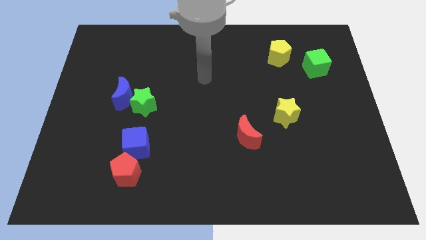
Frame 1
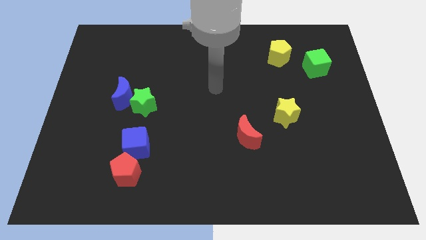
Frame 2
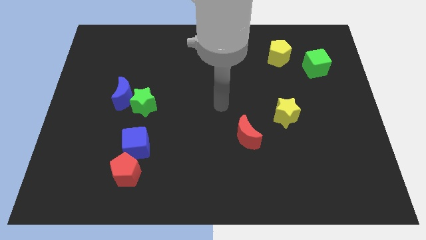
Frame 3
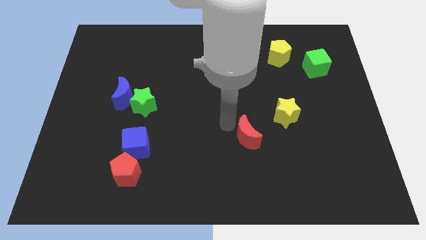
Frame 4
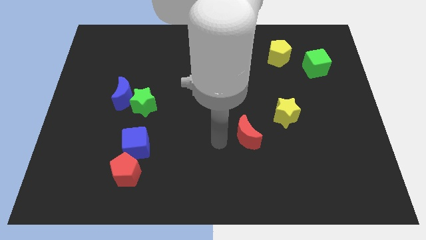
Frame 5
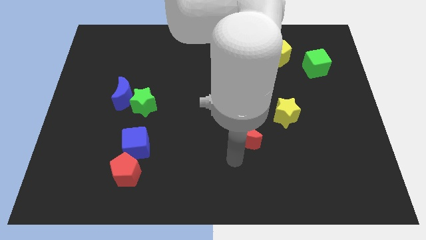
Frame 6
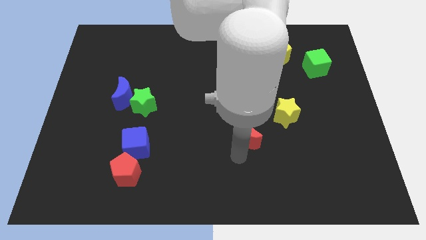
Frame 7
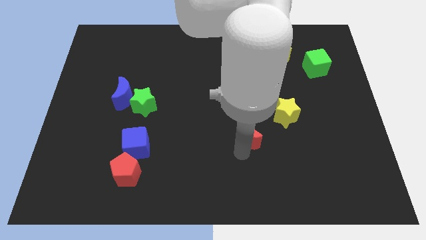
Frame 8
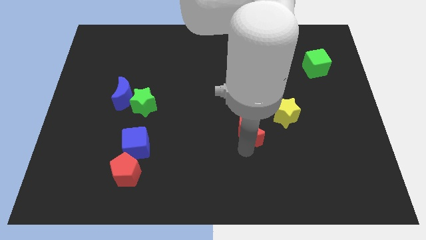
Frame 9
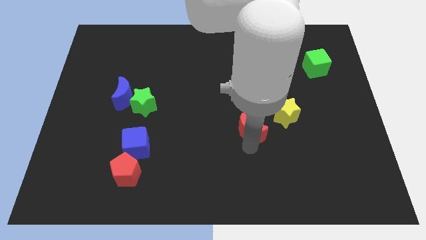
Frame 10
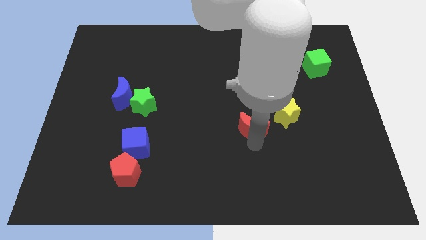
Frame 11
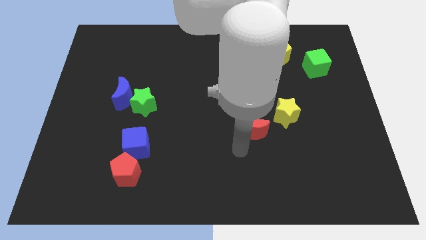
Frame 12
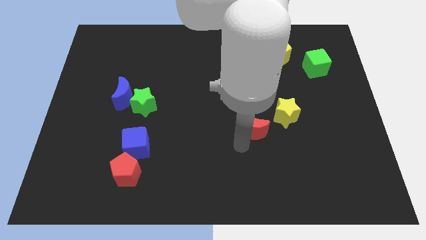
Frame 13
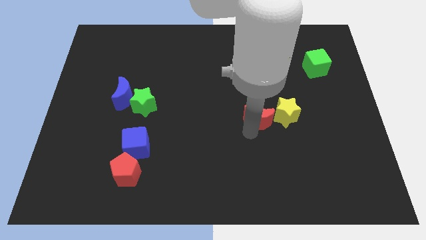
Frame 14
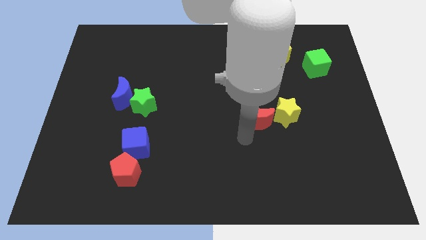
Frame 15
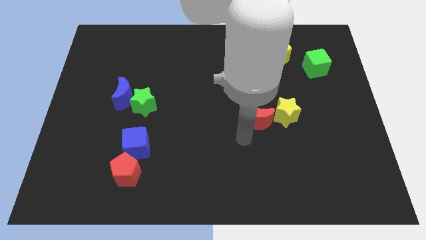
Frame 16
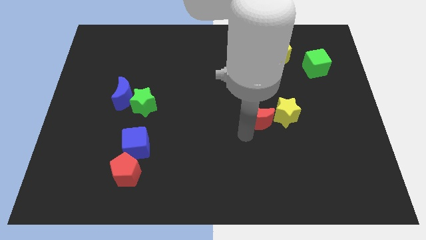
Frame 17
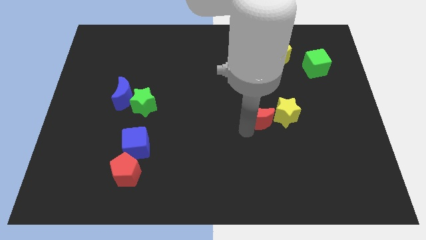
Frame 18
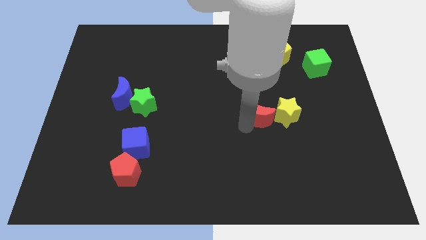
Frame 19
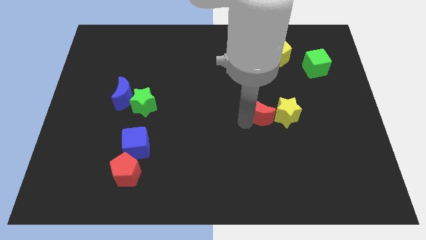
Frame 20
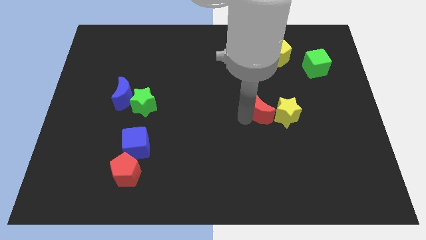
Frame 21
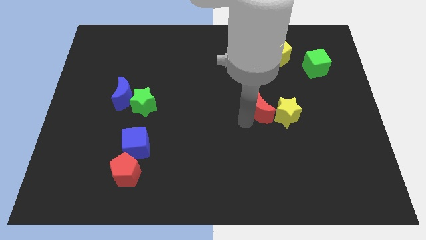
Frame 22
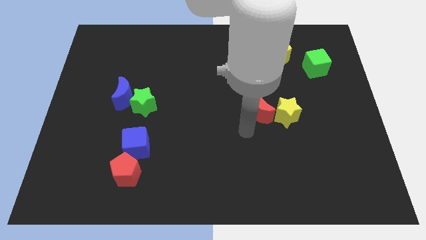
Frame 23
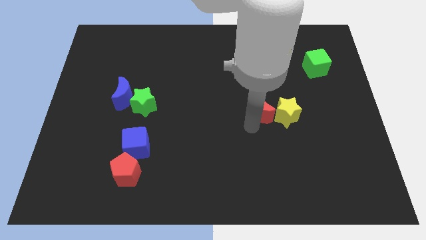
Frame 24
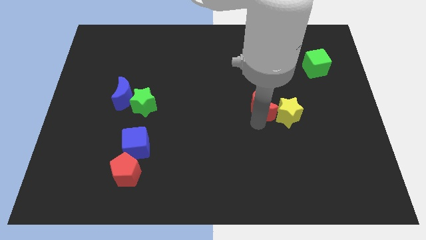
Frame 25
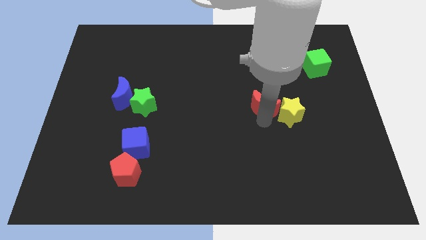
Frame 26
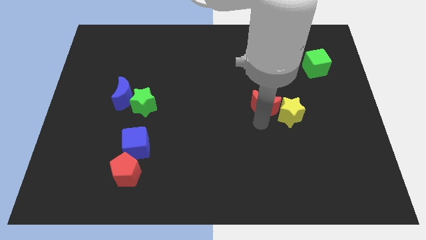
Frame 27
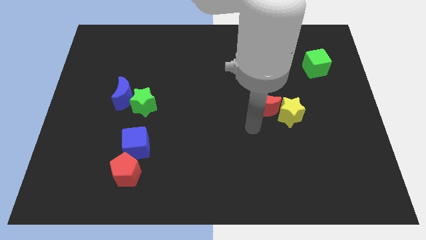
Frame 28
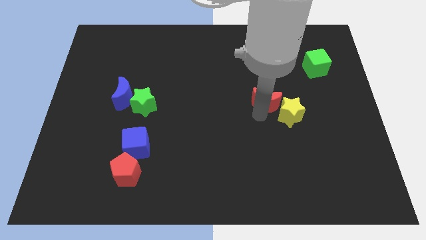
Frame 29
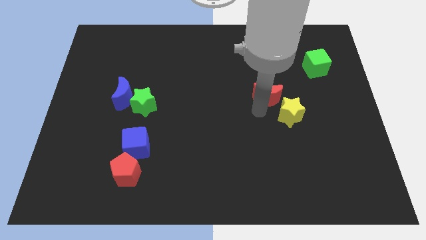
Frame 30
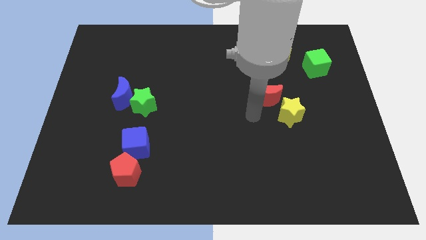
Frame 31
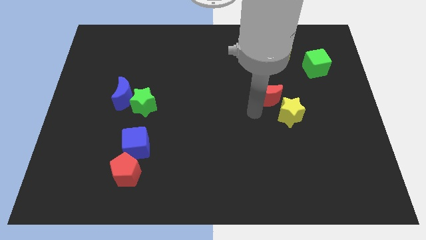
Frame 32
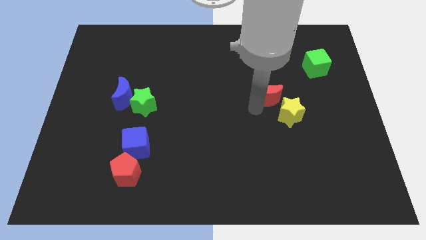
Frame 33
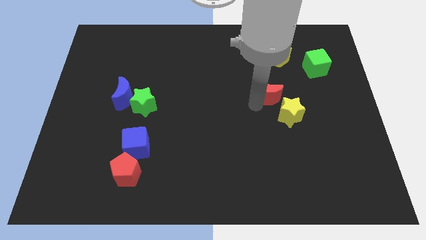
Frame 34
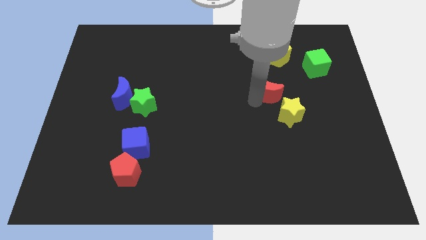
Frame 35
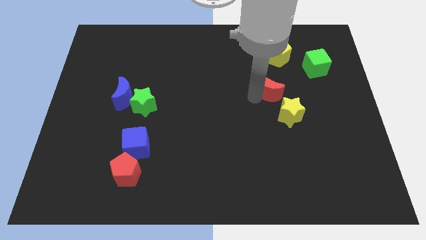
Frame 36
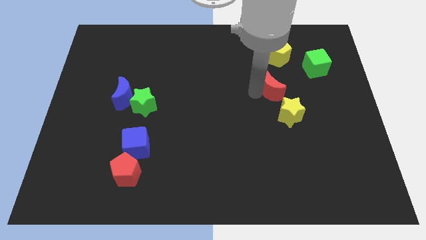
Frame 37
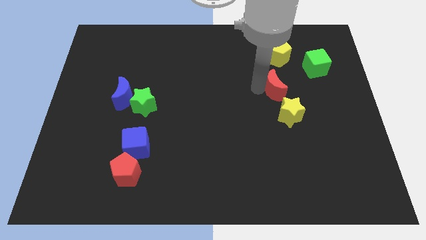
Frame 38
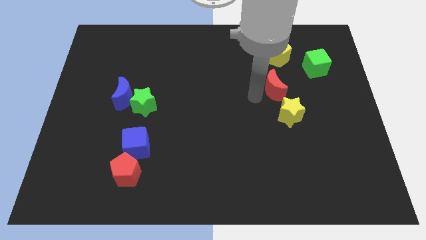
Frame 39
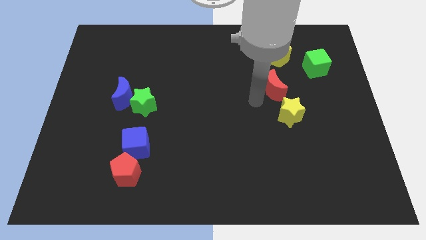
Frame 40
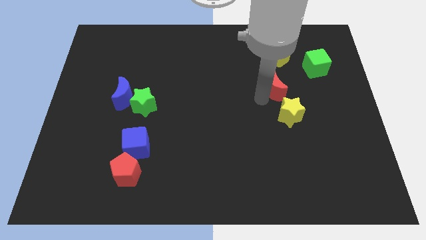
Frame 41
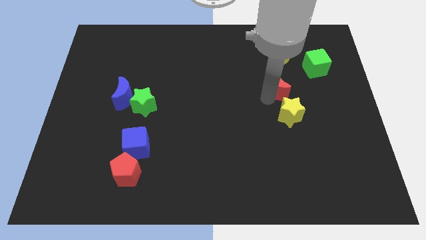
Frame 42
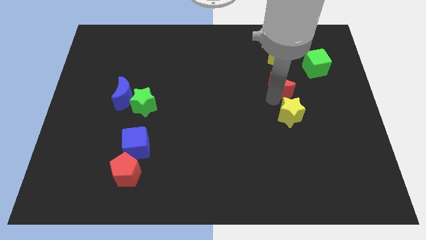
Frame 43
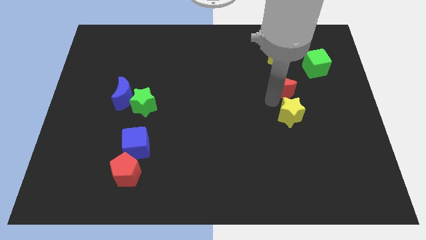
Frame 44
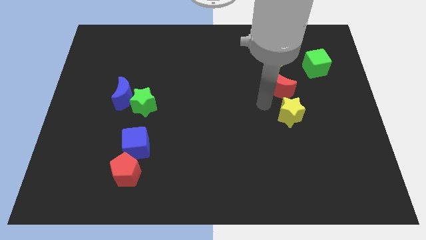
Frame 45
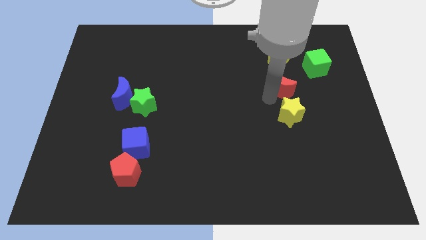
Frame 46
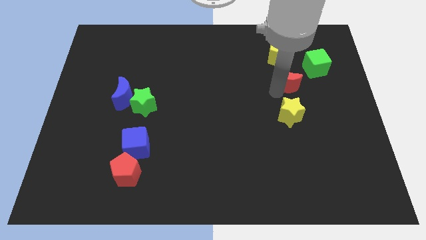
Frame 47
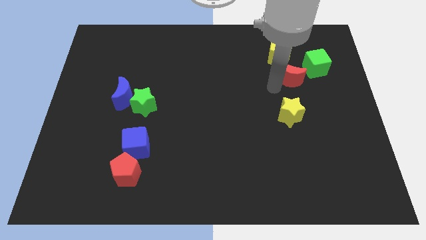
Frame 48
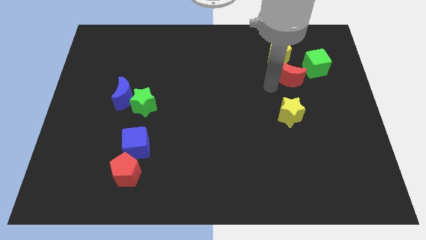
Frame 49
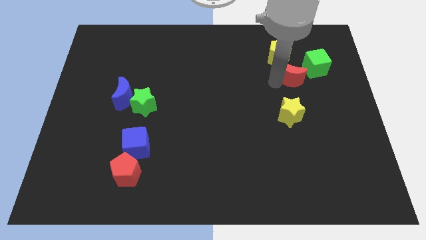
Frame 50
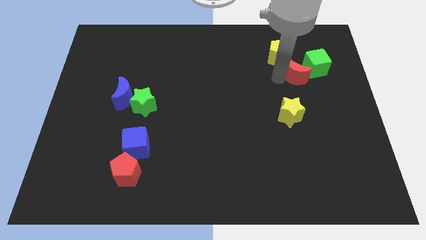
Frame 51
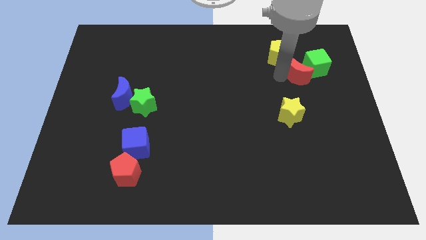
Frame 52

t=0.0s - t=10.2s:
slide the red moon next to the green cube

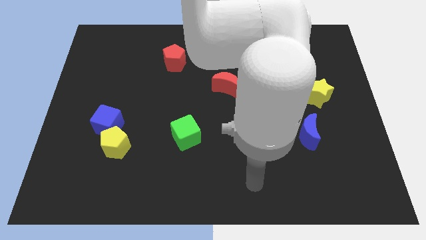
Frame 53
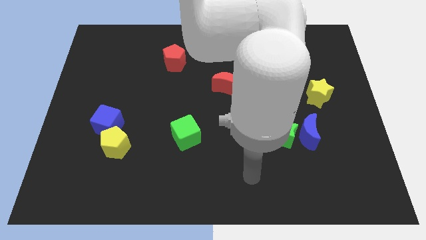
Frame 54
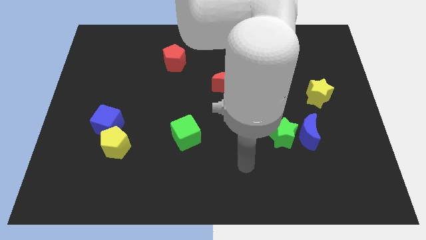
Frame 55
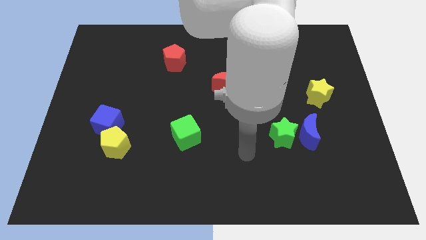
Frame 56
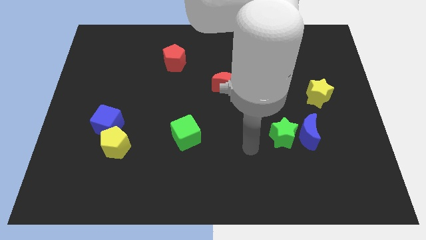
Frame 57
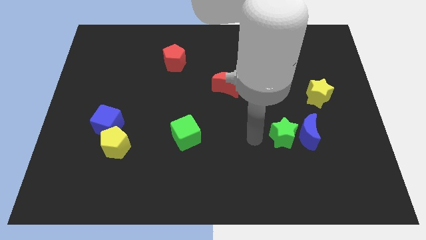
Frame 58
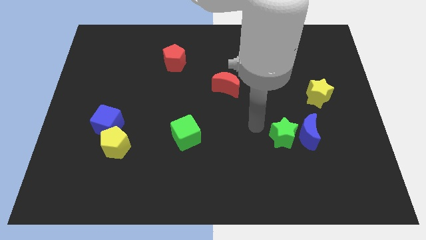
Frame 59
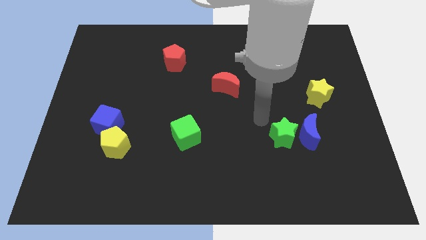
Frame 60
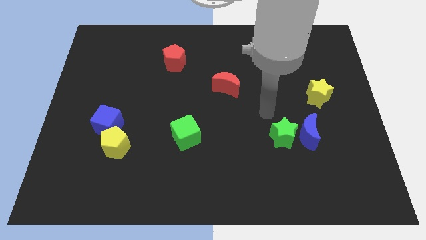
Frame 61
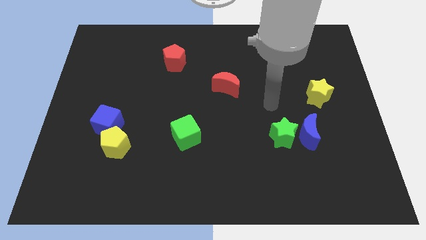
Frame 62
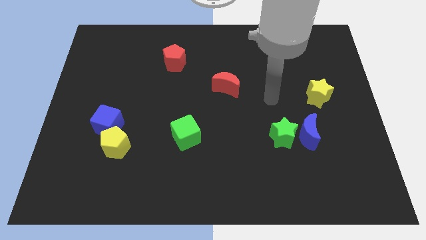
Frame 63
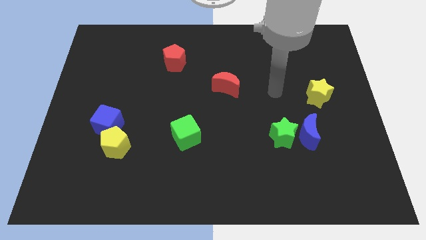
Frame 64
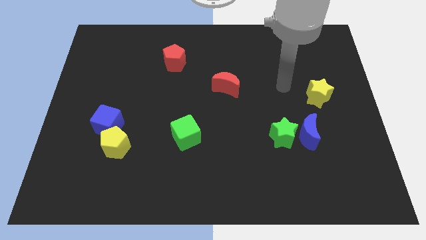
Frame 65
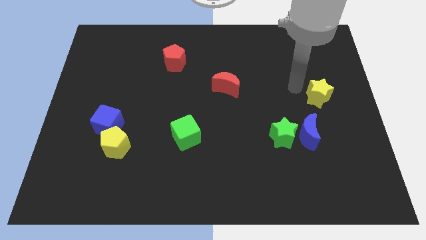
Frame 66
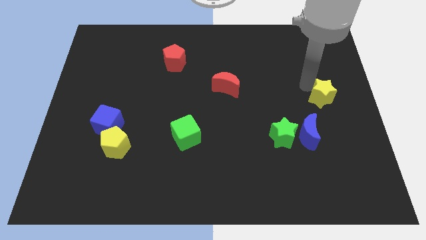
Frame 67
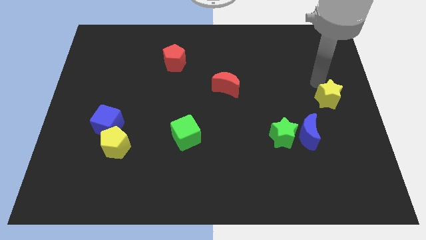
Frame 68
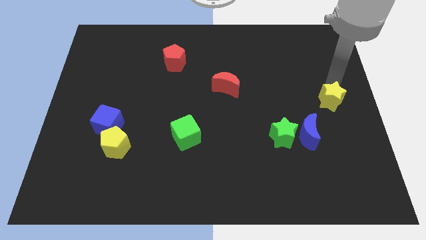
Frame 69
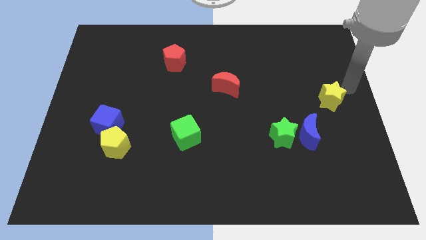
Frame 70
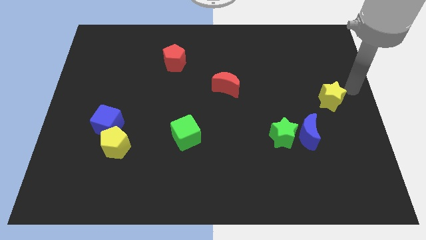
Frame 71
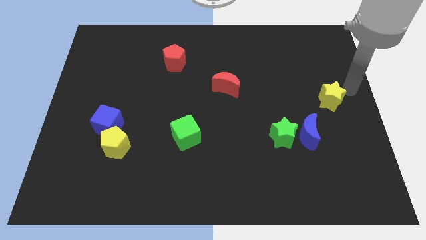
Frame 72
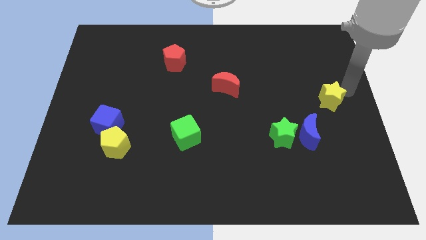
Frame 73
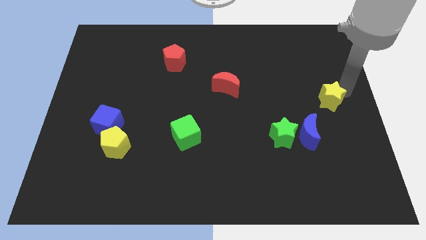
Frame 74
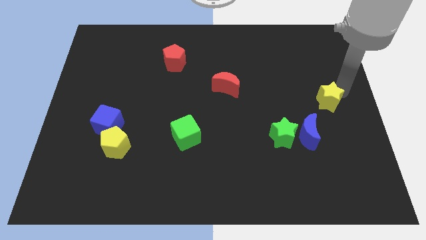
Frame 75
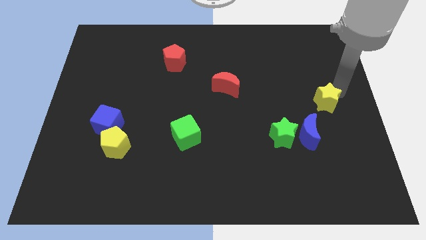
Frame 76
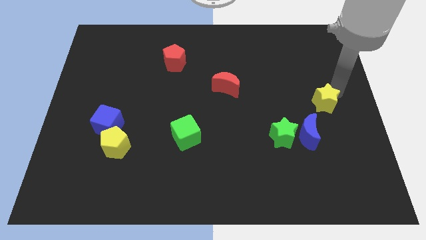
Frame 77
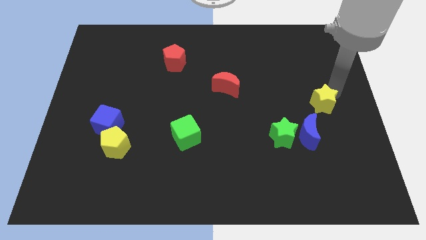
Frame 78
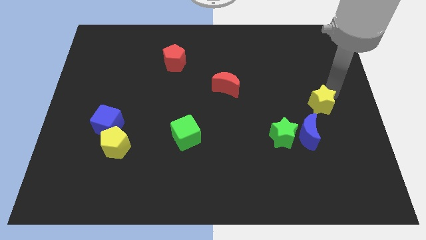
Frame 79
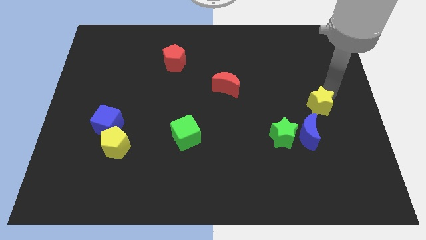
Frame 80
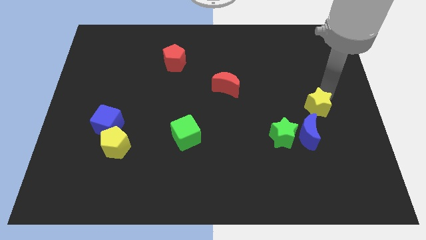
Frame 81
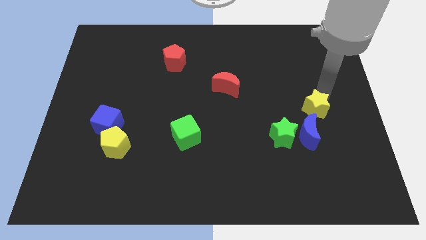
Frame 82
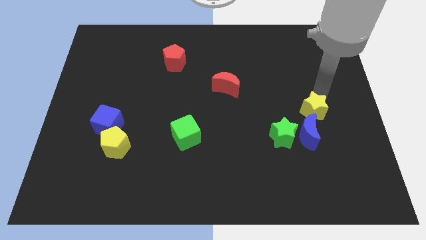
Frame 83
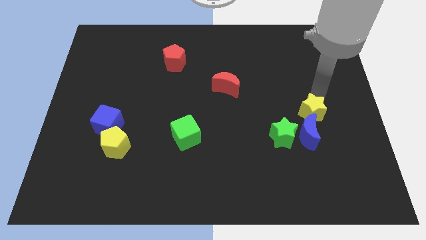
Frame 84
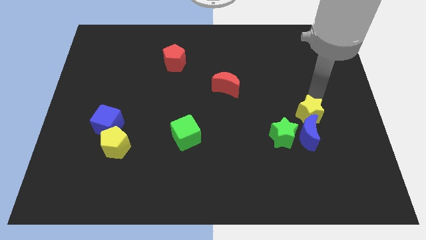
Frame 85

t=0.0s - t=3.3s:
put the yellow star towards the blue moon
